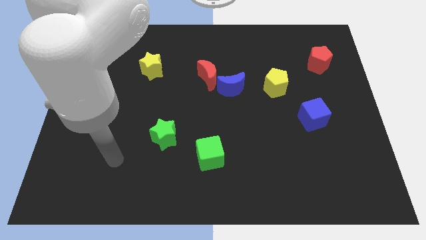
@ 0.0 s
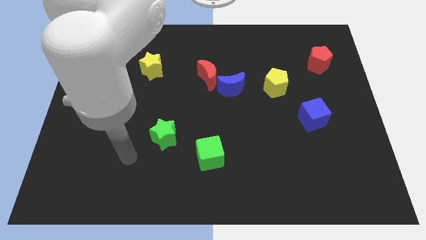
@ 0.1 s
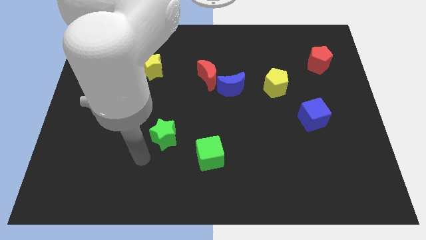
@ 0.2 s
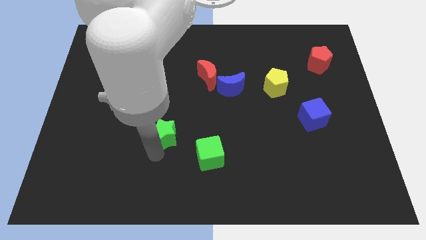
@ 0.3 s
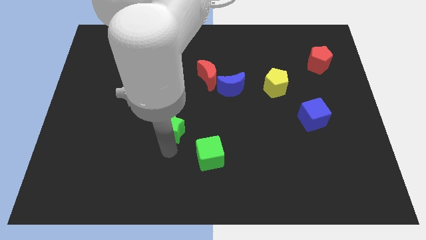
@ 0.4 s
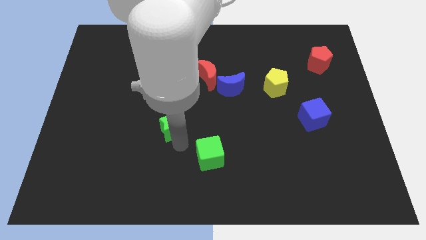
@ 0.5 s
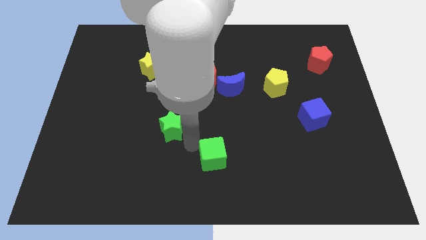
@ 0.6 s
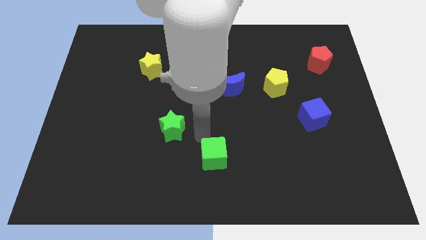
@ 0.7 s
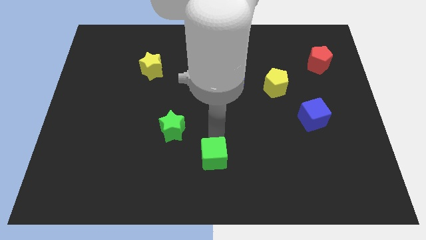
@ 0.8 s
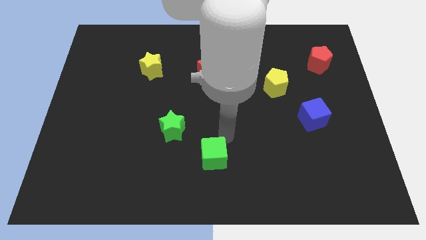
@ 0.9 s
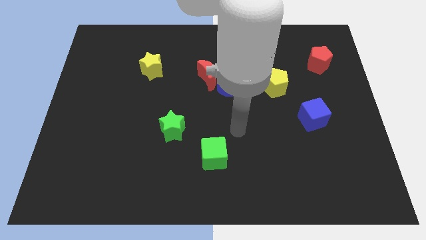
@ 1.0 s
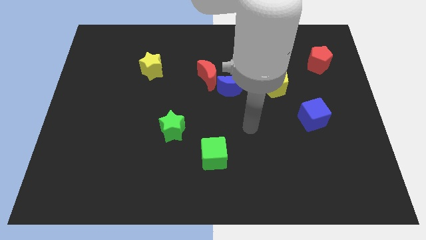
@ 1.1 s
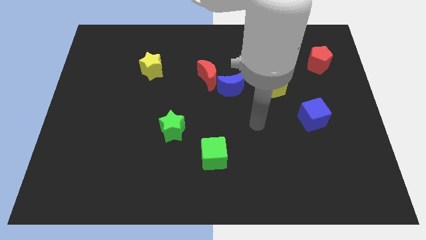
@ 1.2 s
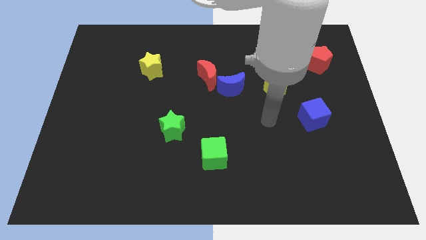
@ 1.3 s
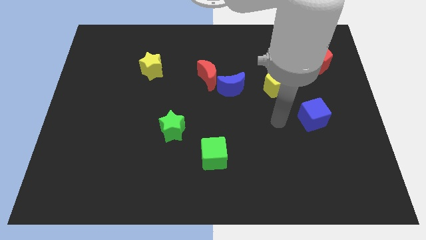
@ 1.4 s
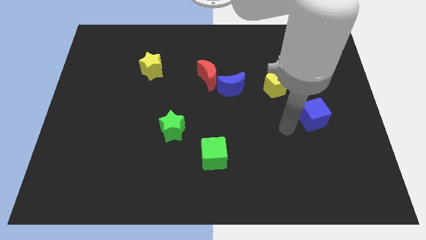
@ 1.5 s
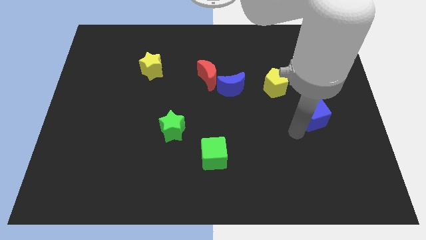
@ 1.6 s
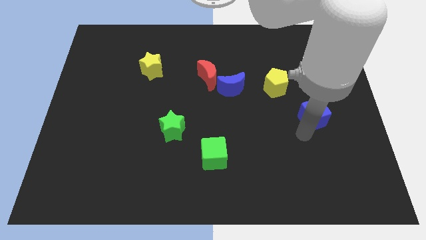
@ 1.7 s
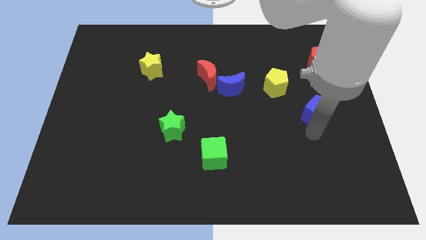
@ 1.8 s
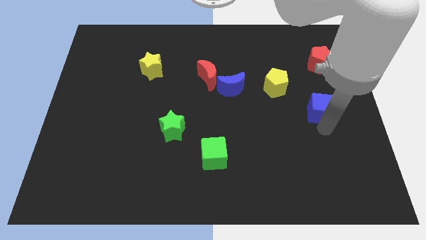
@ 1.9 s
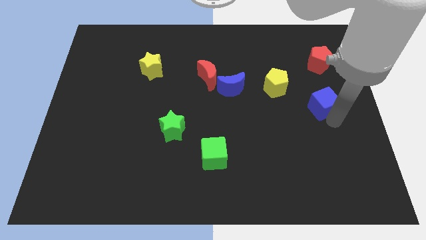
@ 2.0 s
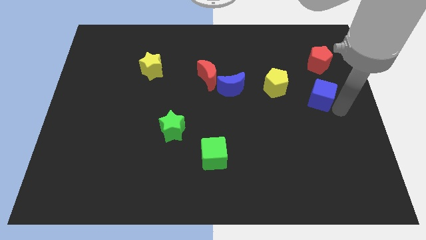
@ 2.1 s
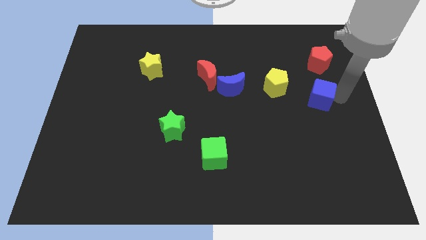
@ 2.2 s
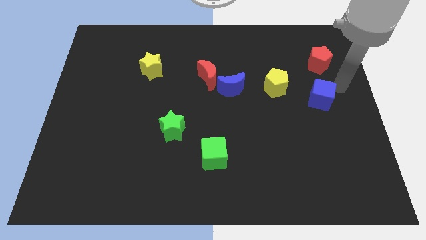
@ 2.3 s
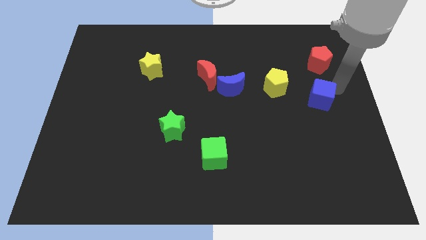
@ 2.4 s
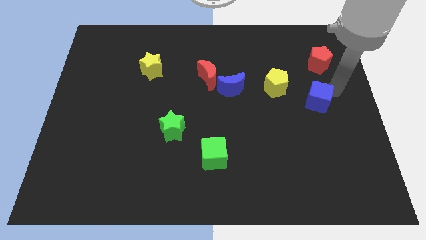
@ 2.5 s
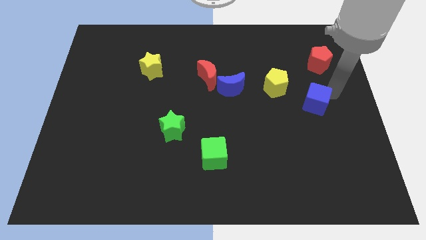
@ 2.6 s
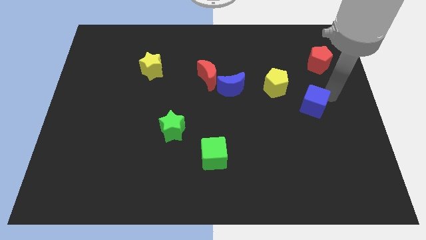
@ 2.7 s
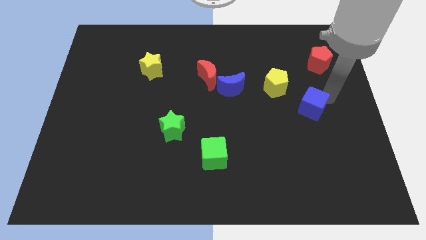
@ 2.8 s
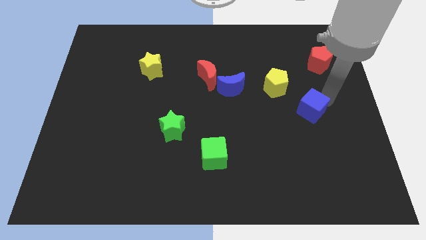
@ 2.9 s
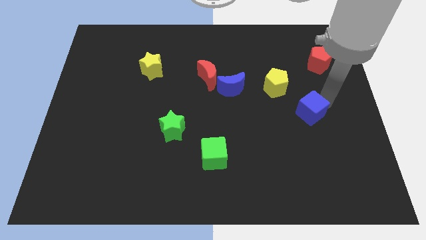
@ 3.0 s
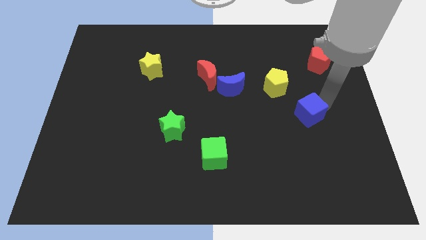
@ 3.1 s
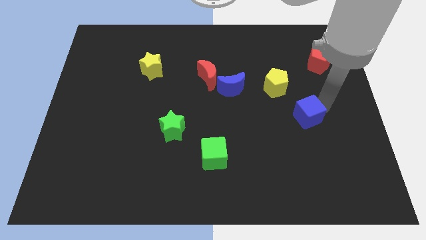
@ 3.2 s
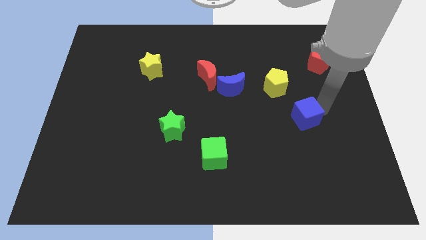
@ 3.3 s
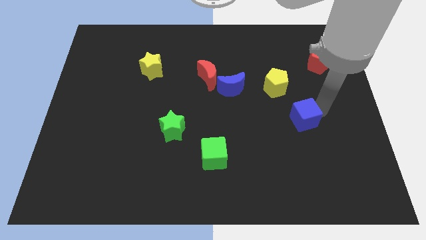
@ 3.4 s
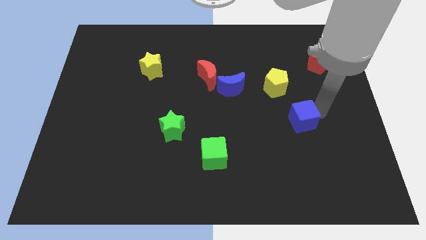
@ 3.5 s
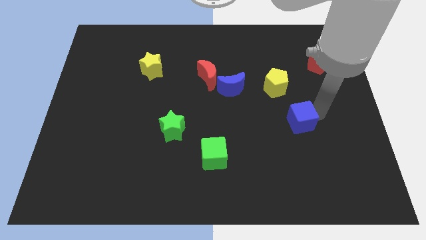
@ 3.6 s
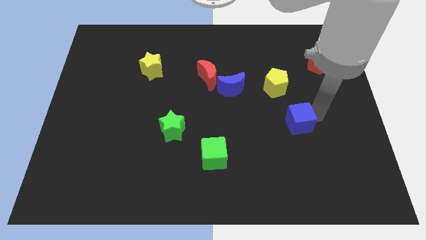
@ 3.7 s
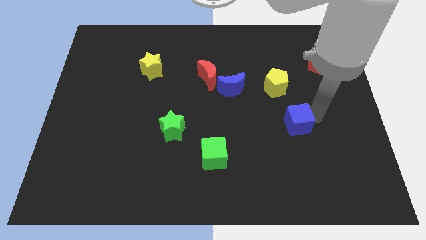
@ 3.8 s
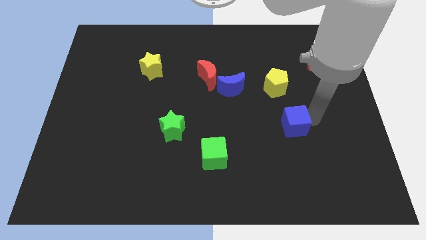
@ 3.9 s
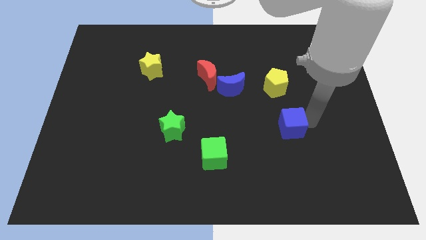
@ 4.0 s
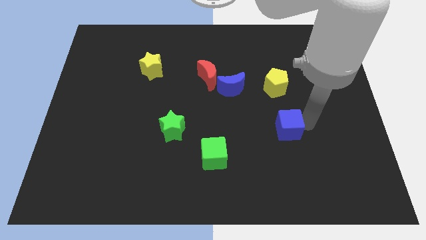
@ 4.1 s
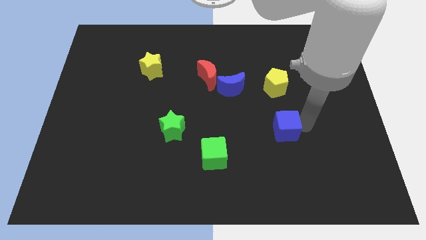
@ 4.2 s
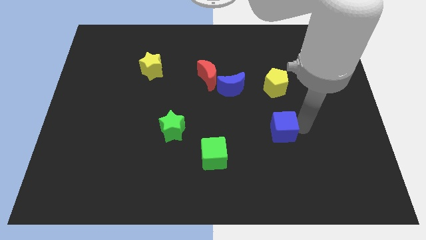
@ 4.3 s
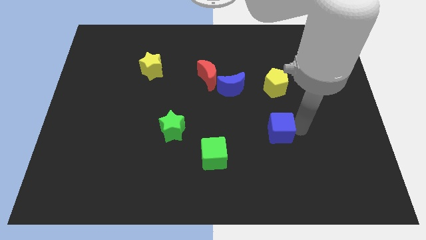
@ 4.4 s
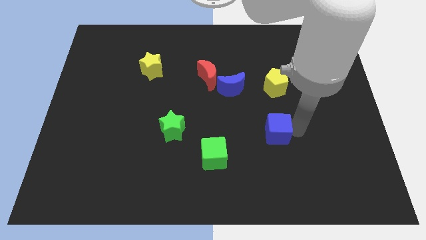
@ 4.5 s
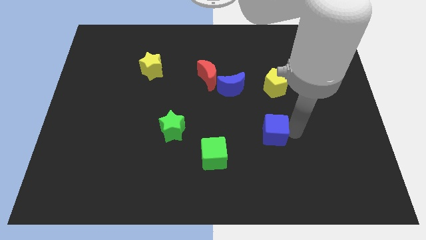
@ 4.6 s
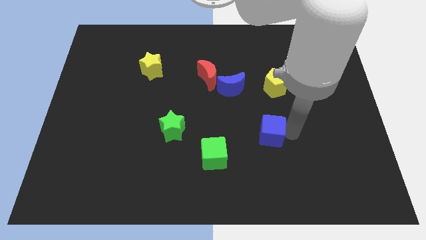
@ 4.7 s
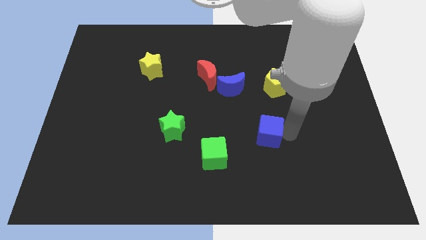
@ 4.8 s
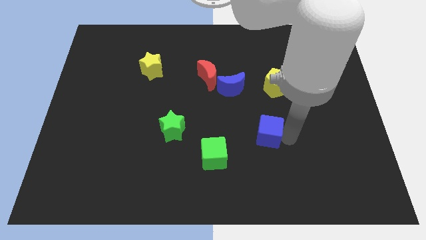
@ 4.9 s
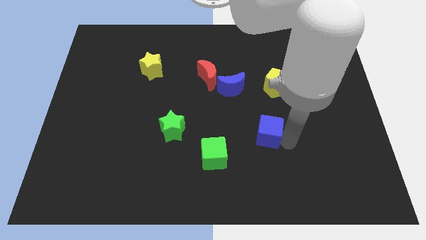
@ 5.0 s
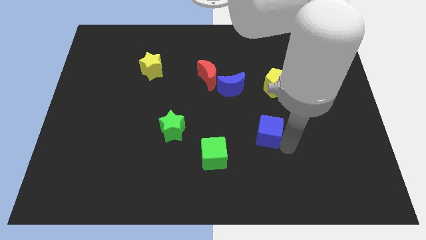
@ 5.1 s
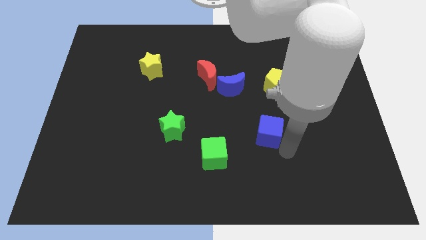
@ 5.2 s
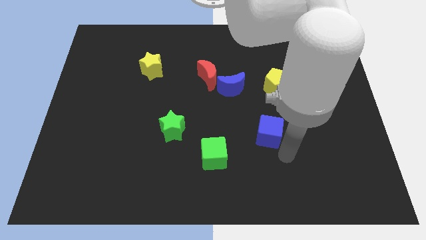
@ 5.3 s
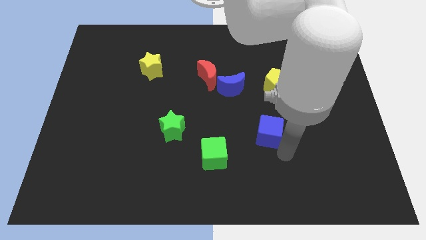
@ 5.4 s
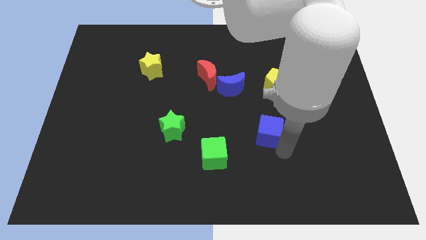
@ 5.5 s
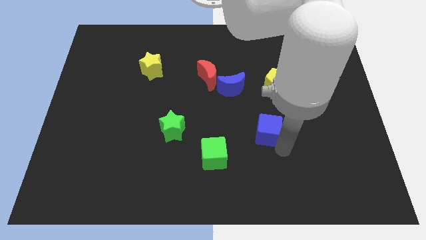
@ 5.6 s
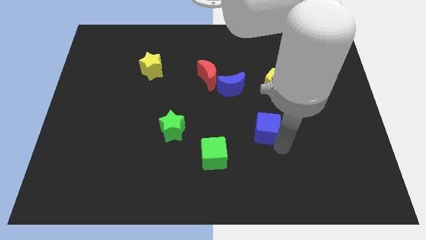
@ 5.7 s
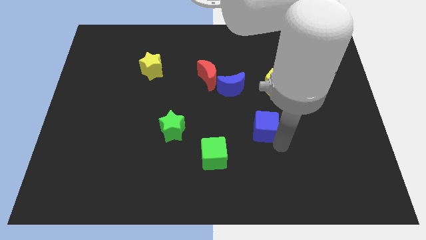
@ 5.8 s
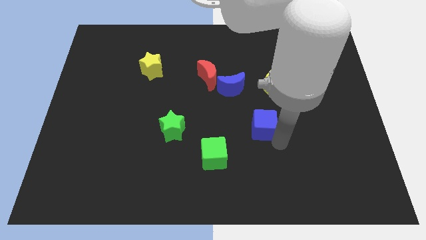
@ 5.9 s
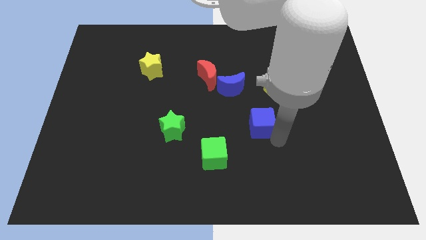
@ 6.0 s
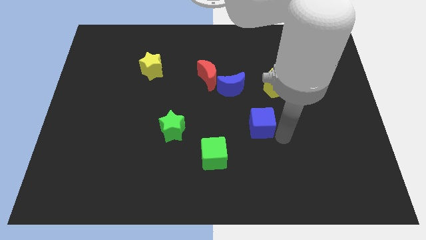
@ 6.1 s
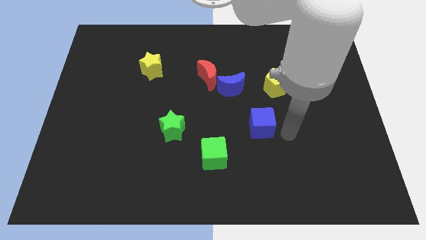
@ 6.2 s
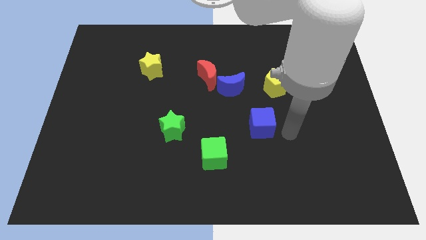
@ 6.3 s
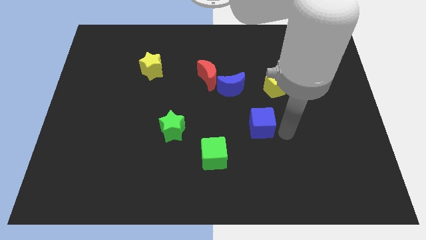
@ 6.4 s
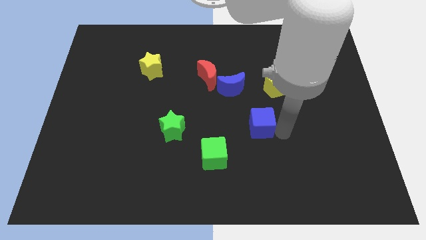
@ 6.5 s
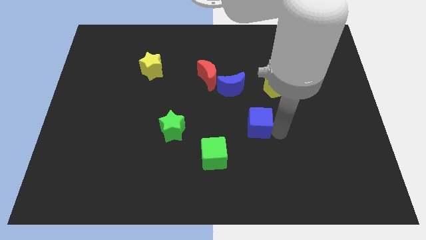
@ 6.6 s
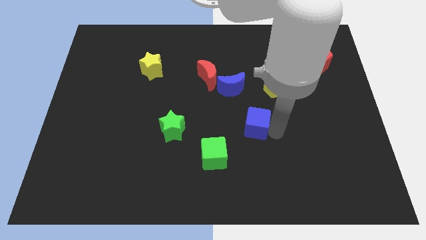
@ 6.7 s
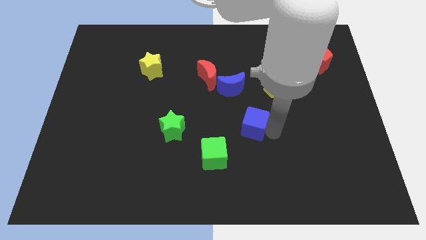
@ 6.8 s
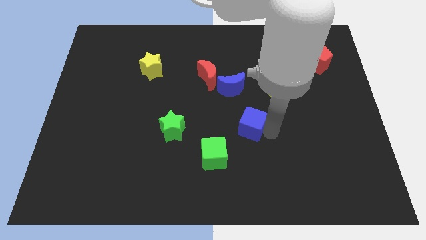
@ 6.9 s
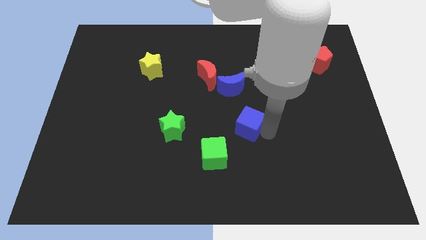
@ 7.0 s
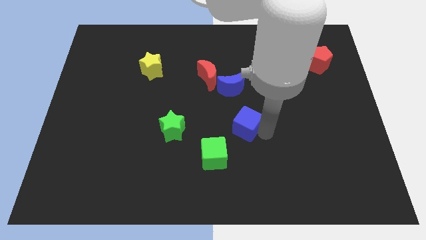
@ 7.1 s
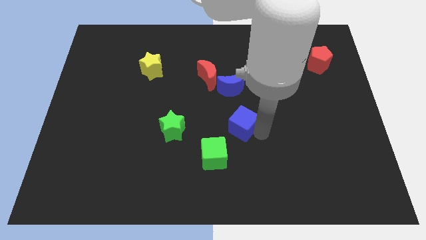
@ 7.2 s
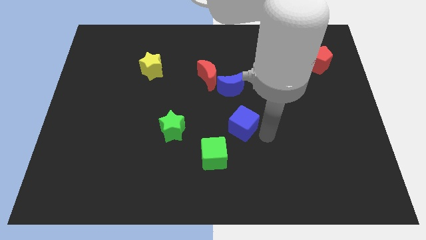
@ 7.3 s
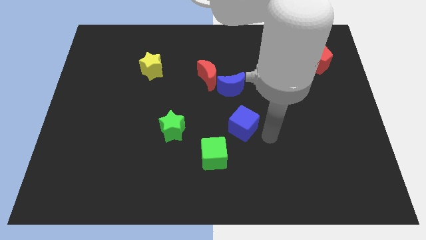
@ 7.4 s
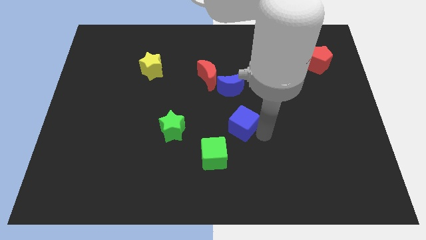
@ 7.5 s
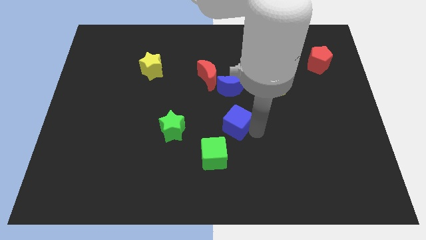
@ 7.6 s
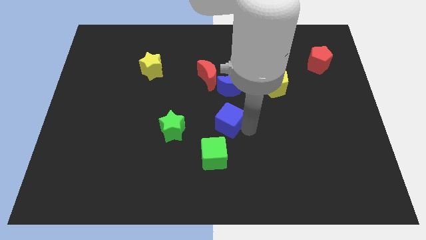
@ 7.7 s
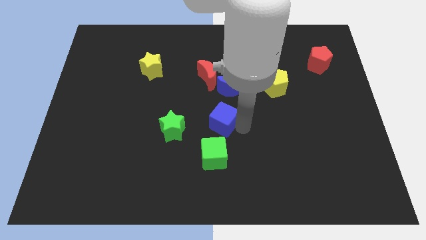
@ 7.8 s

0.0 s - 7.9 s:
move the blue cube left
